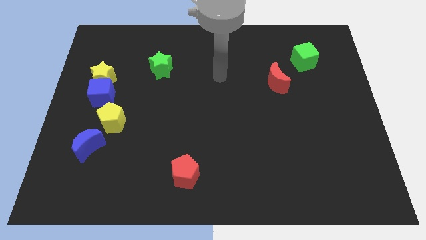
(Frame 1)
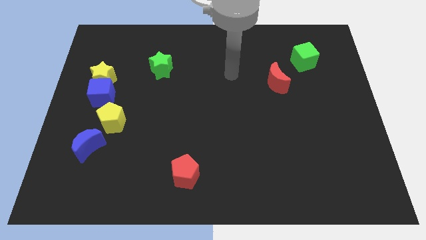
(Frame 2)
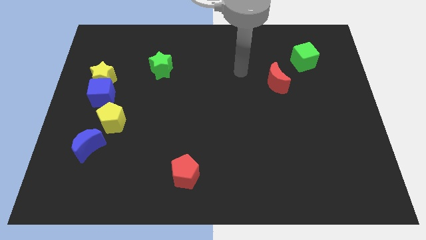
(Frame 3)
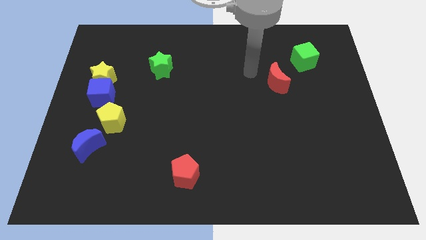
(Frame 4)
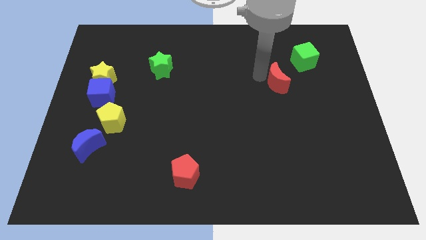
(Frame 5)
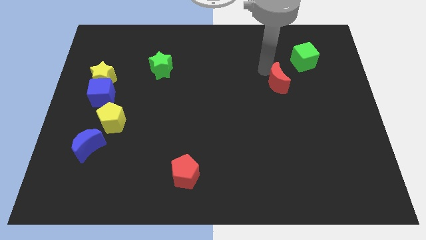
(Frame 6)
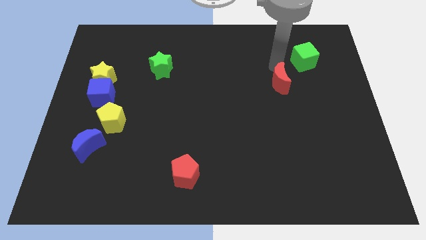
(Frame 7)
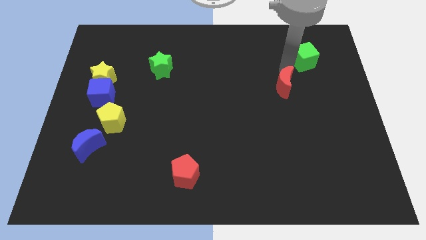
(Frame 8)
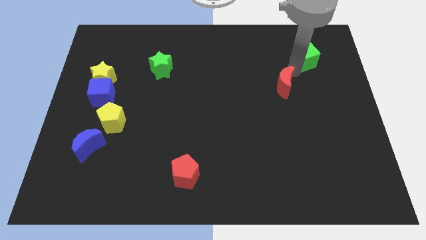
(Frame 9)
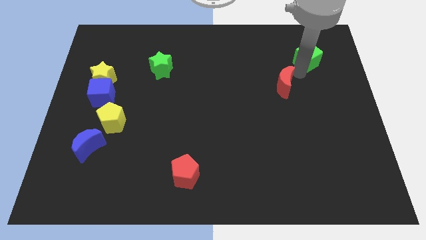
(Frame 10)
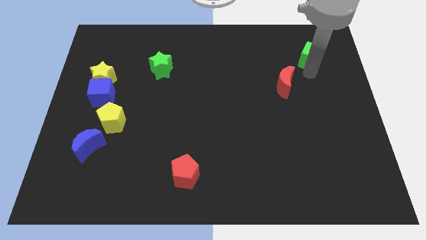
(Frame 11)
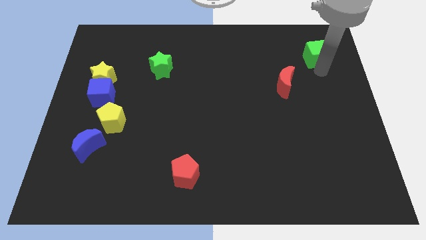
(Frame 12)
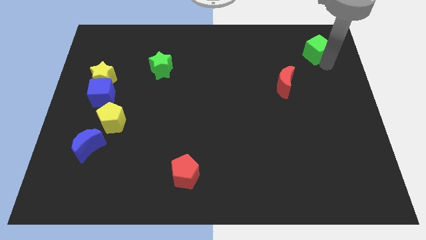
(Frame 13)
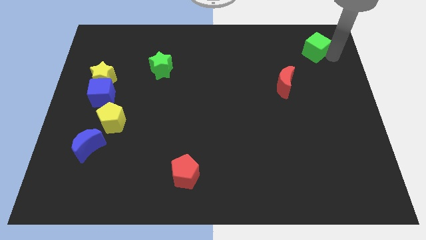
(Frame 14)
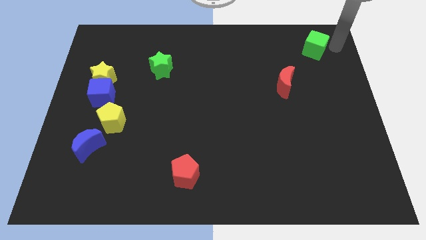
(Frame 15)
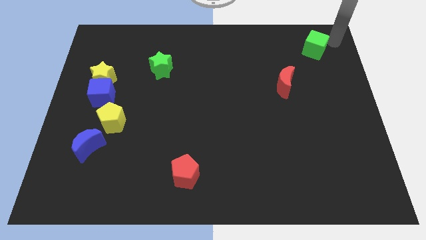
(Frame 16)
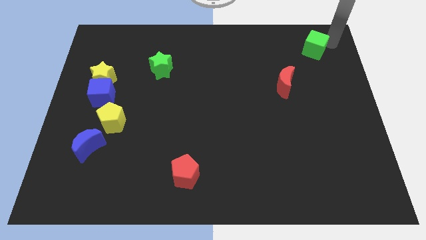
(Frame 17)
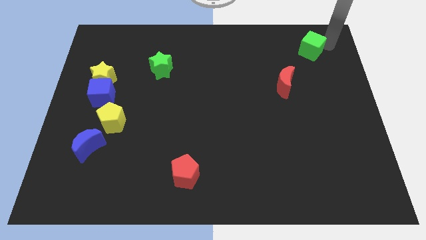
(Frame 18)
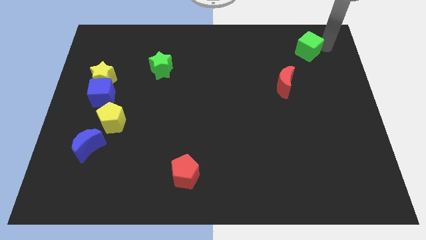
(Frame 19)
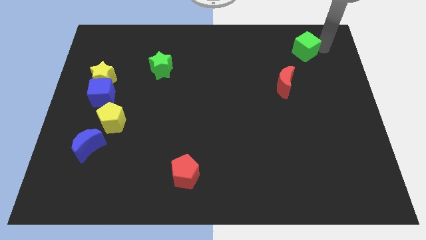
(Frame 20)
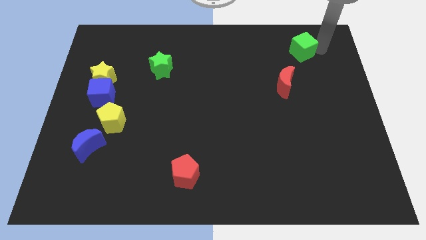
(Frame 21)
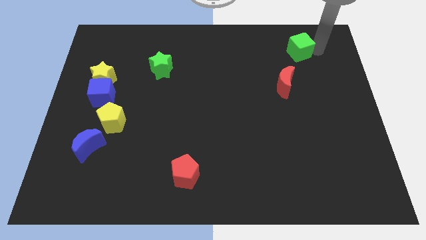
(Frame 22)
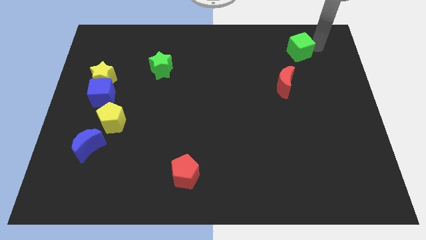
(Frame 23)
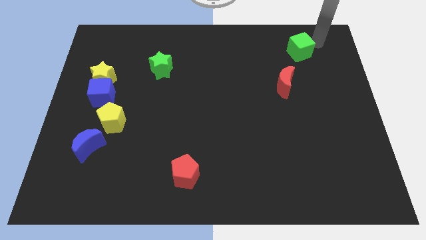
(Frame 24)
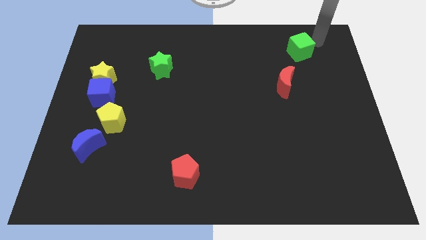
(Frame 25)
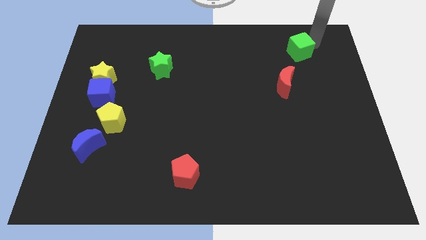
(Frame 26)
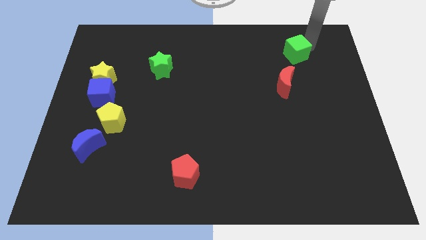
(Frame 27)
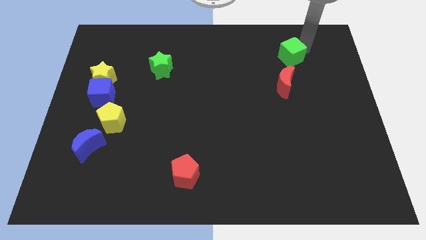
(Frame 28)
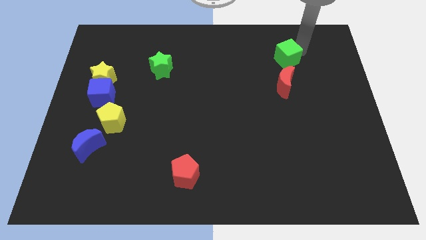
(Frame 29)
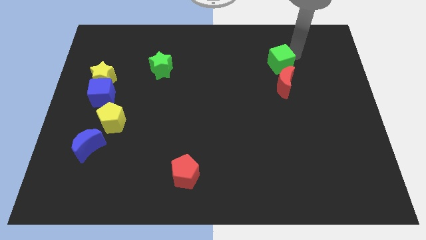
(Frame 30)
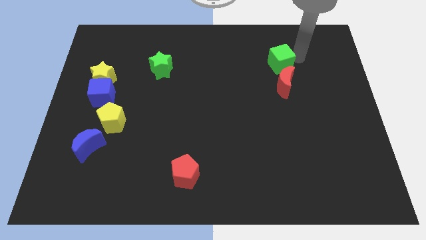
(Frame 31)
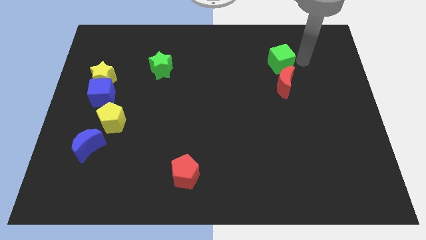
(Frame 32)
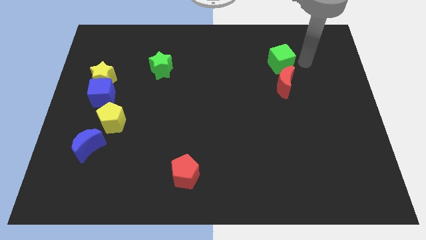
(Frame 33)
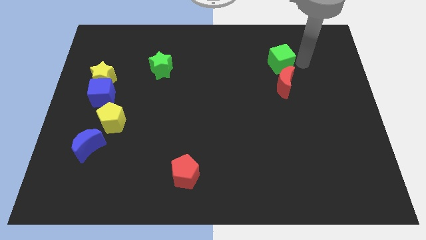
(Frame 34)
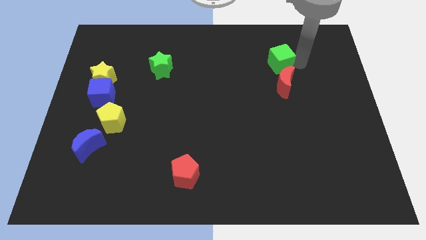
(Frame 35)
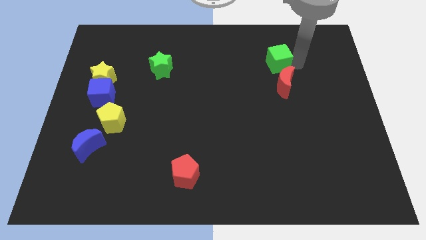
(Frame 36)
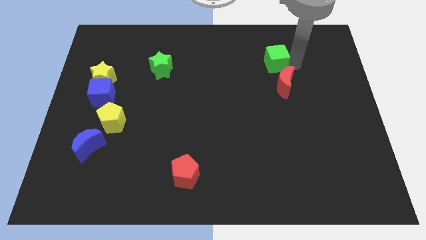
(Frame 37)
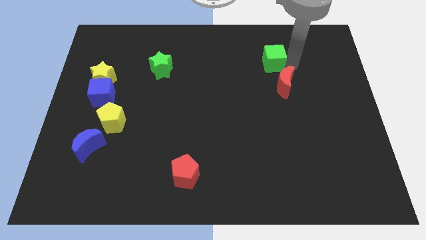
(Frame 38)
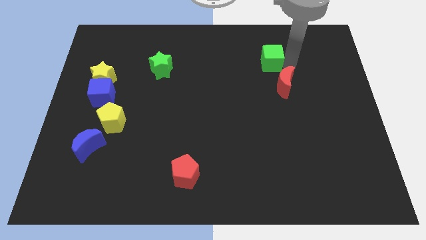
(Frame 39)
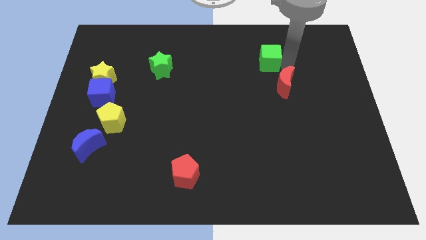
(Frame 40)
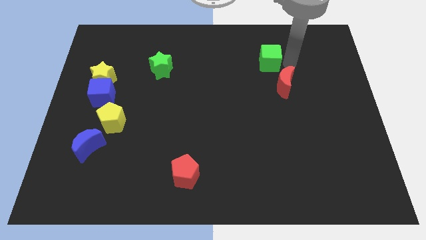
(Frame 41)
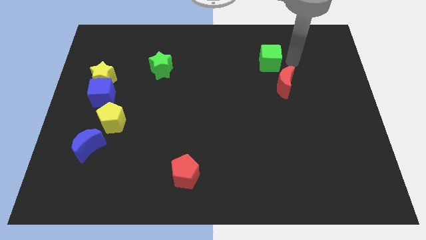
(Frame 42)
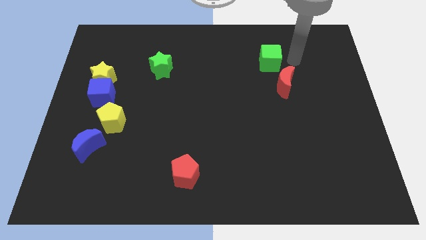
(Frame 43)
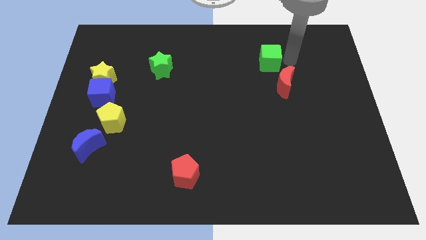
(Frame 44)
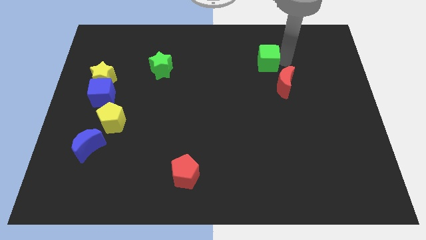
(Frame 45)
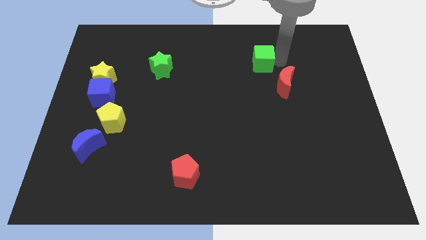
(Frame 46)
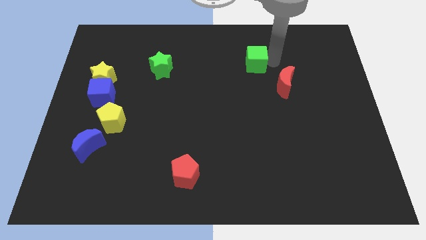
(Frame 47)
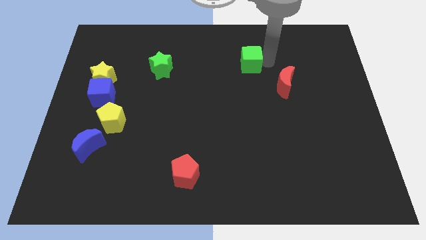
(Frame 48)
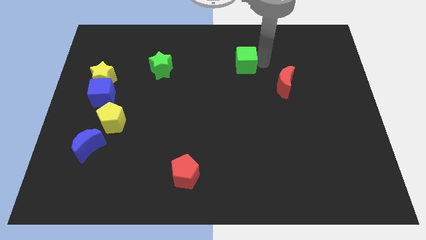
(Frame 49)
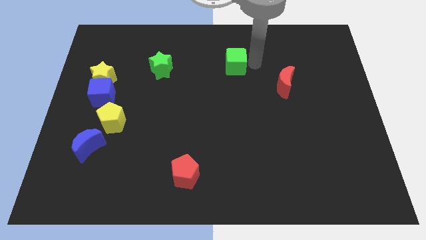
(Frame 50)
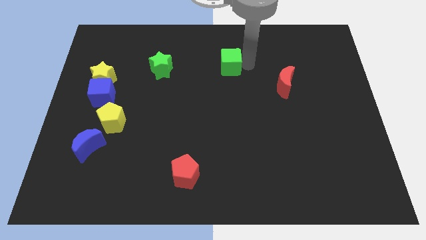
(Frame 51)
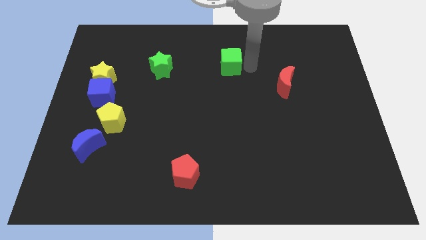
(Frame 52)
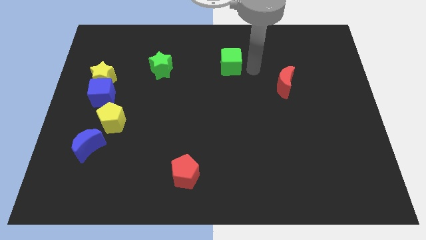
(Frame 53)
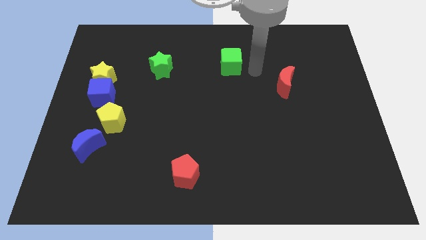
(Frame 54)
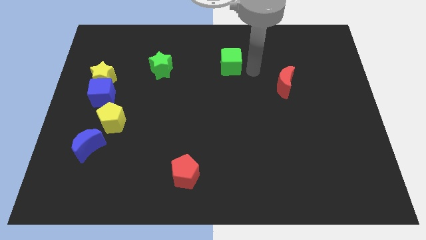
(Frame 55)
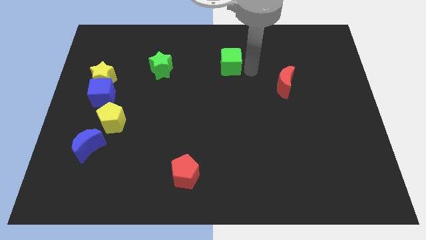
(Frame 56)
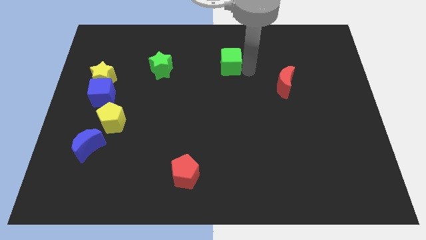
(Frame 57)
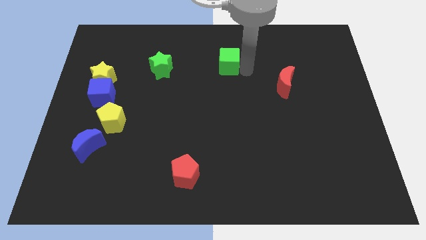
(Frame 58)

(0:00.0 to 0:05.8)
push the green cube left

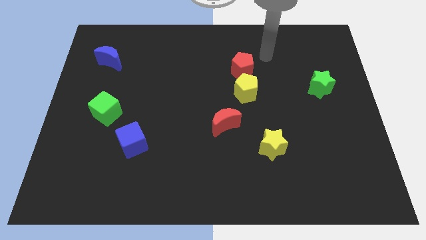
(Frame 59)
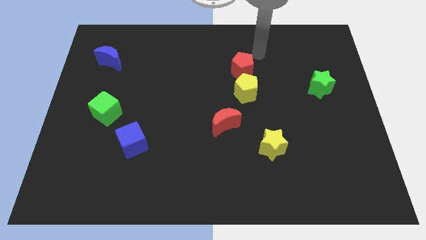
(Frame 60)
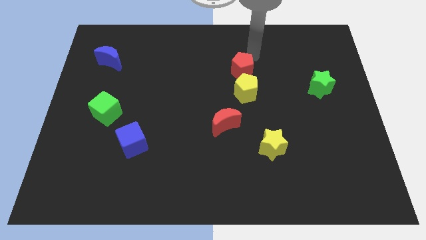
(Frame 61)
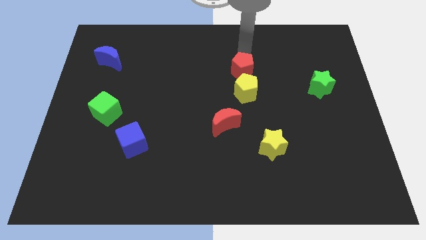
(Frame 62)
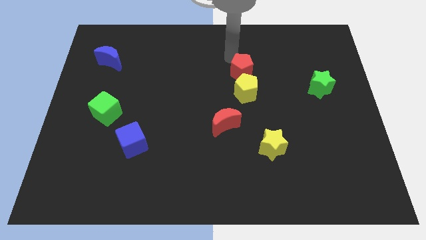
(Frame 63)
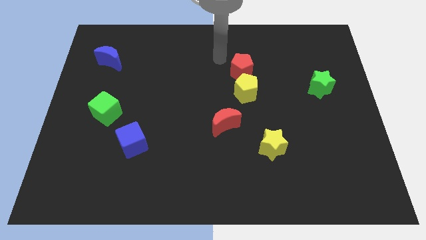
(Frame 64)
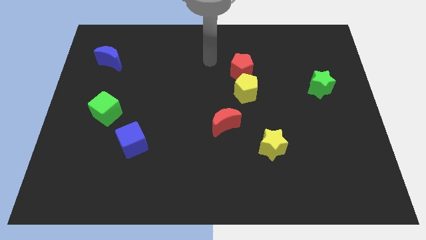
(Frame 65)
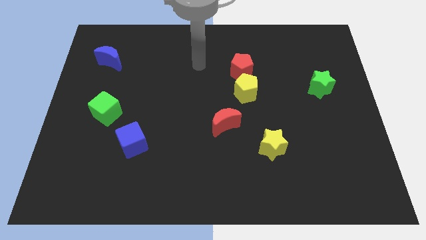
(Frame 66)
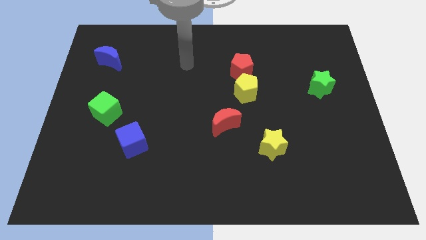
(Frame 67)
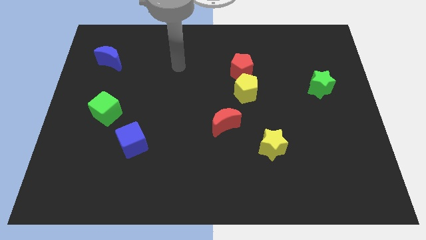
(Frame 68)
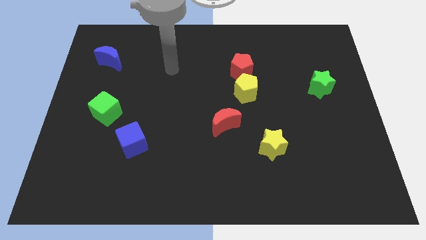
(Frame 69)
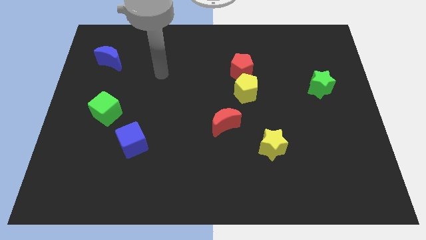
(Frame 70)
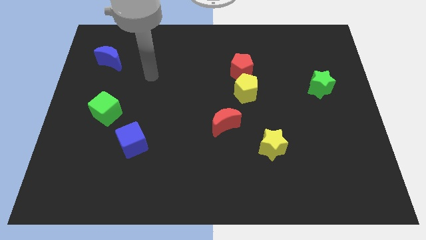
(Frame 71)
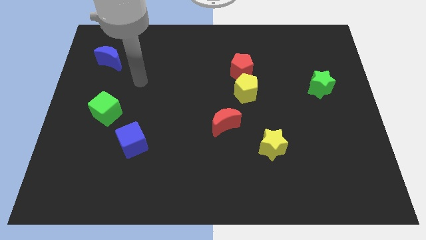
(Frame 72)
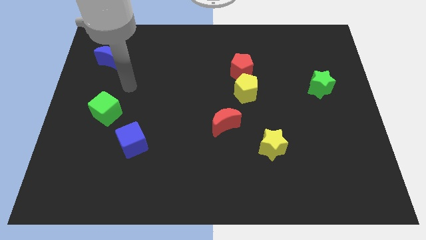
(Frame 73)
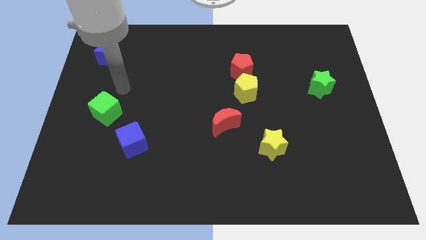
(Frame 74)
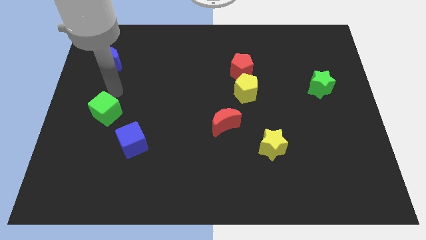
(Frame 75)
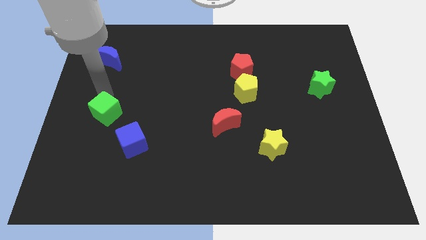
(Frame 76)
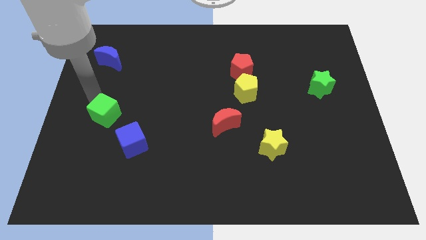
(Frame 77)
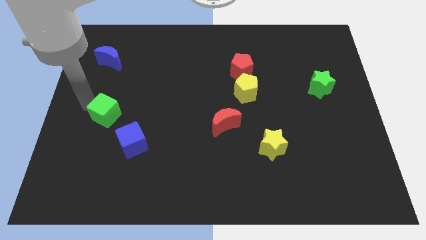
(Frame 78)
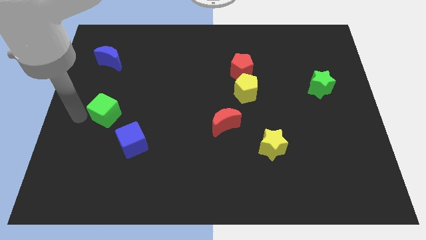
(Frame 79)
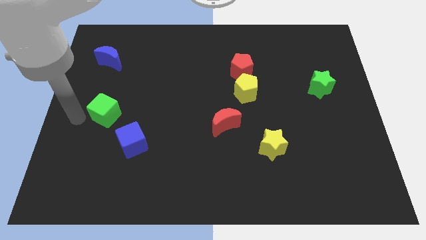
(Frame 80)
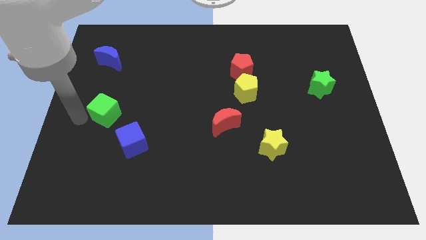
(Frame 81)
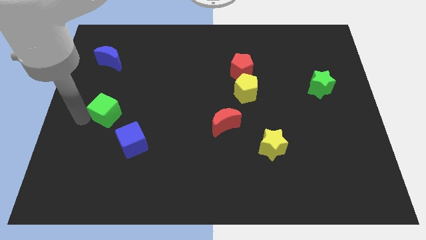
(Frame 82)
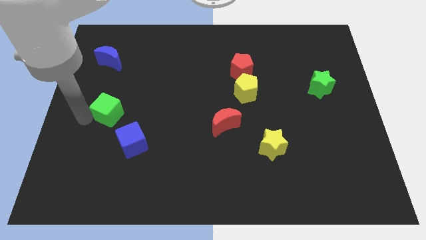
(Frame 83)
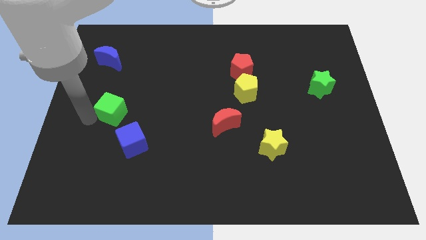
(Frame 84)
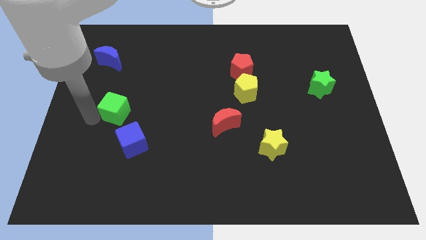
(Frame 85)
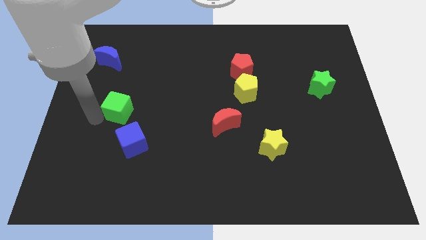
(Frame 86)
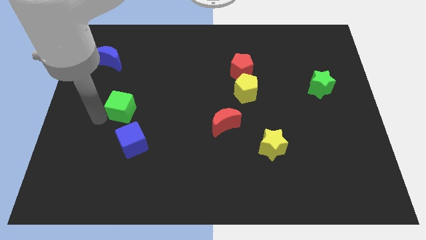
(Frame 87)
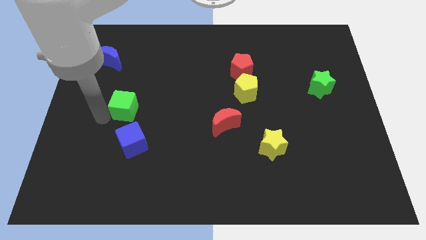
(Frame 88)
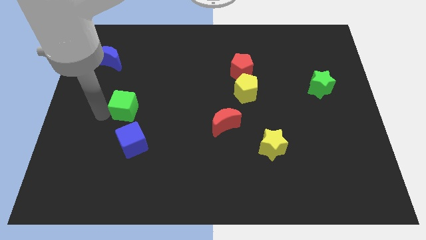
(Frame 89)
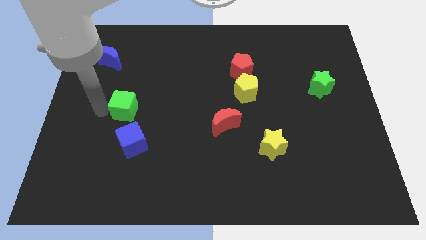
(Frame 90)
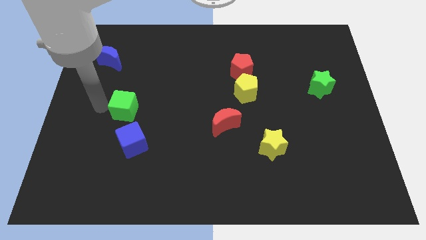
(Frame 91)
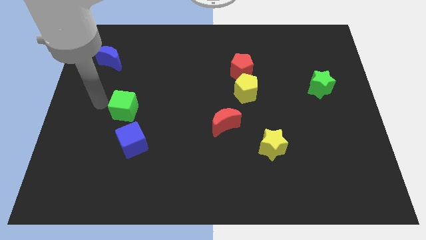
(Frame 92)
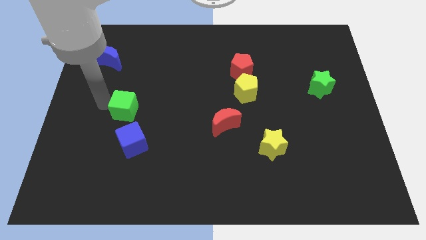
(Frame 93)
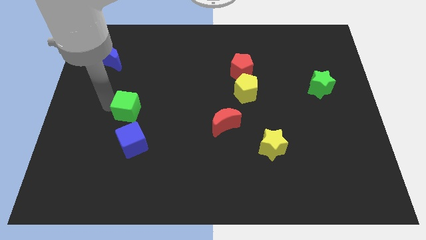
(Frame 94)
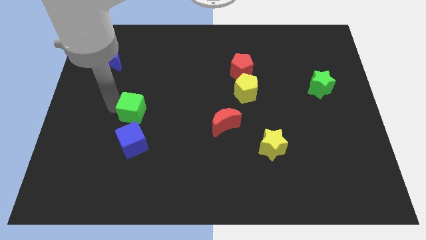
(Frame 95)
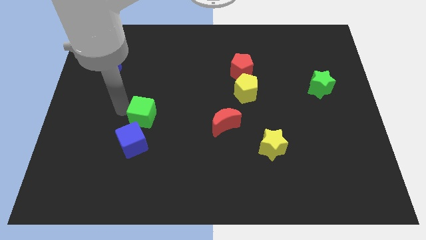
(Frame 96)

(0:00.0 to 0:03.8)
slightly push the green cube to the right
